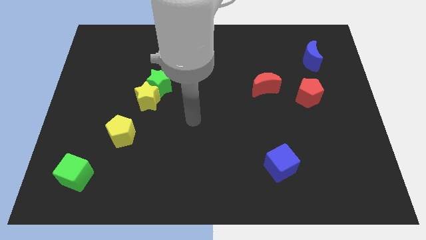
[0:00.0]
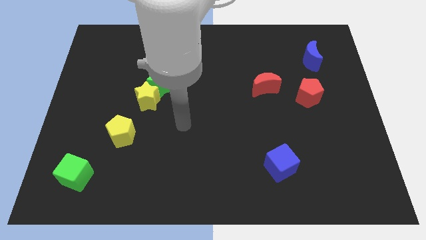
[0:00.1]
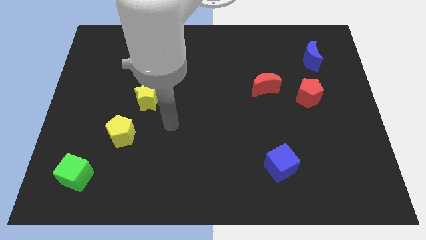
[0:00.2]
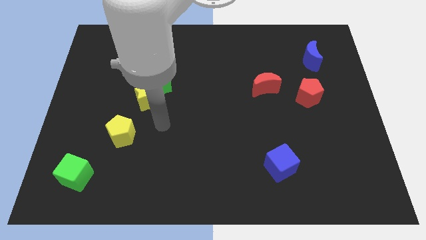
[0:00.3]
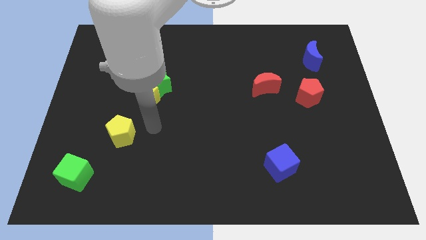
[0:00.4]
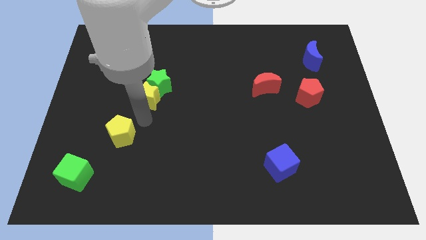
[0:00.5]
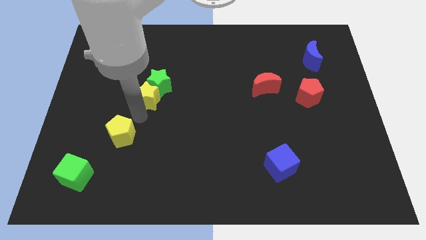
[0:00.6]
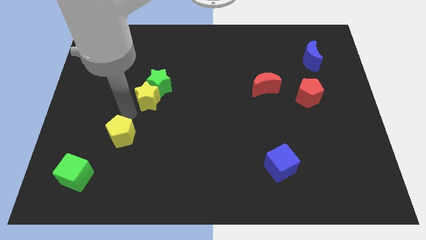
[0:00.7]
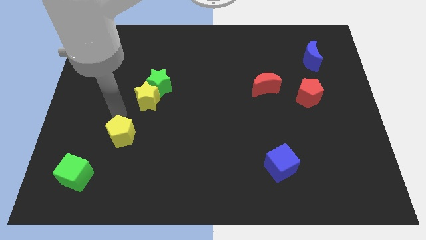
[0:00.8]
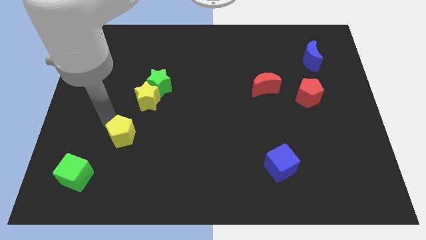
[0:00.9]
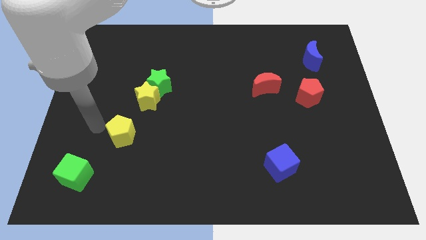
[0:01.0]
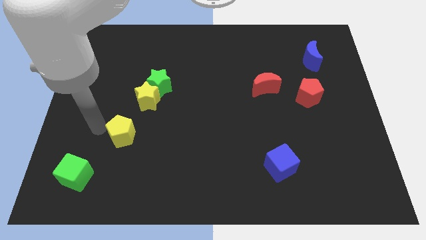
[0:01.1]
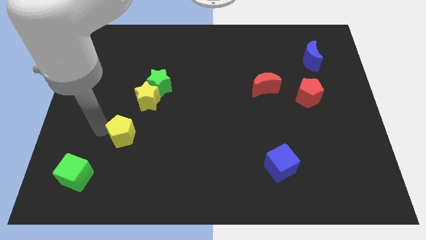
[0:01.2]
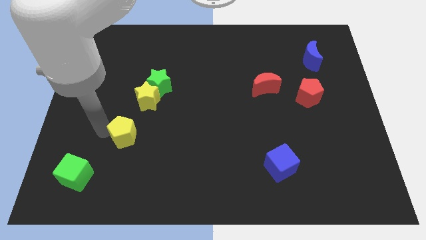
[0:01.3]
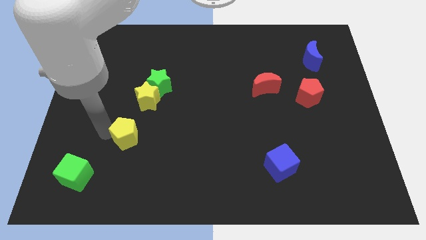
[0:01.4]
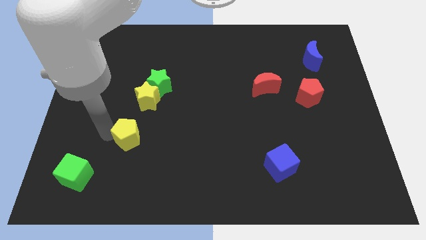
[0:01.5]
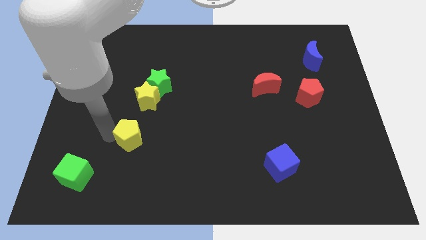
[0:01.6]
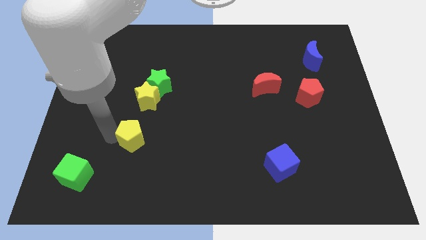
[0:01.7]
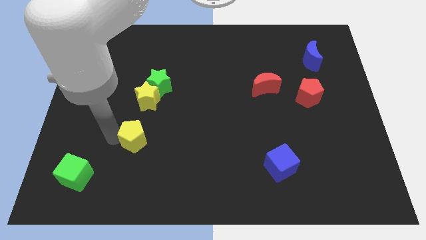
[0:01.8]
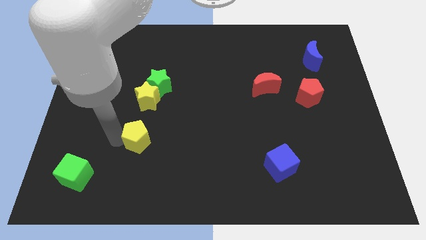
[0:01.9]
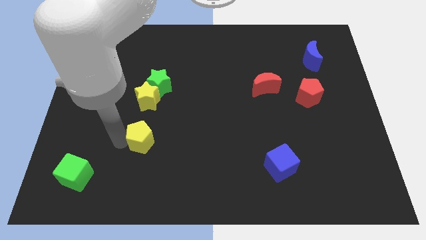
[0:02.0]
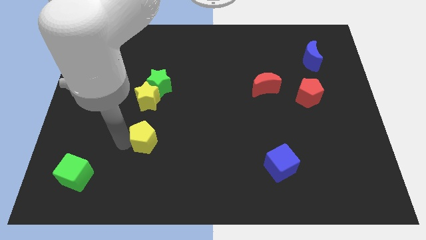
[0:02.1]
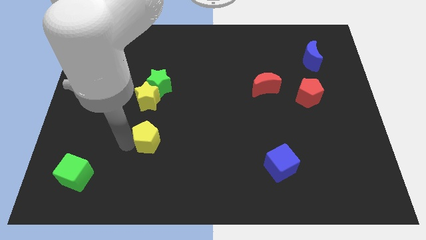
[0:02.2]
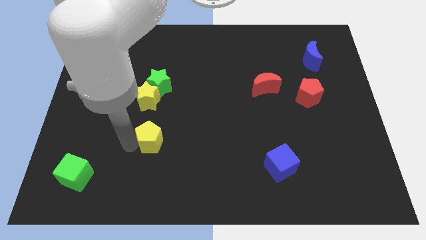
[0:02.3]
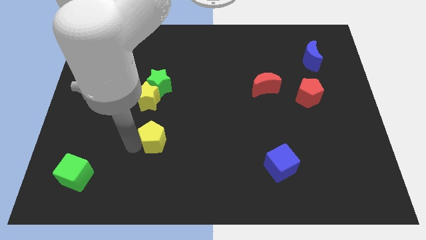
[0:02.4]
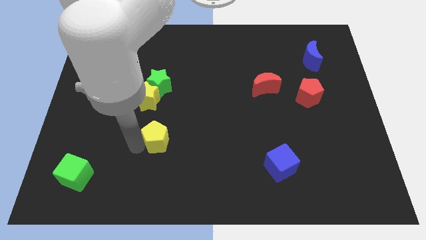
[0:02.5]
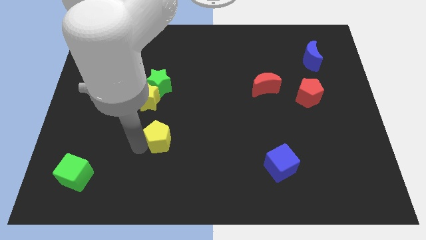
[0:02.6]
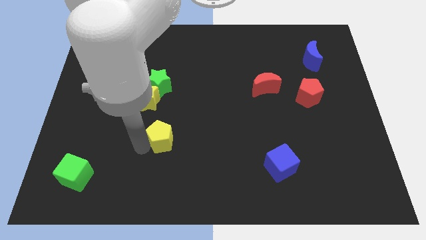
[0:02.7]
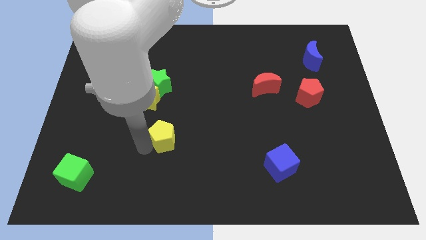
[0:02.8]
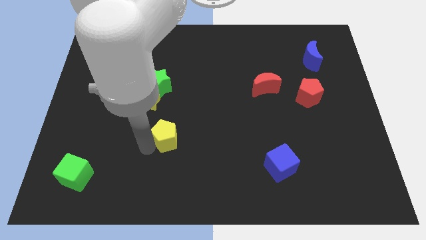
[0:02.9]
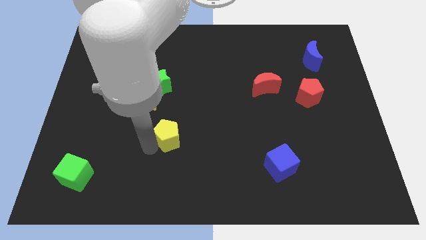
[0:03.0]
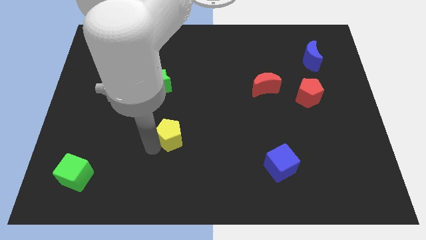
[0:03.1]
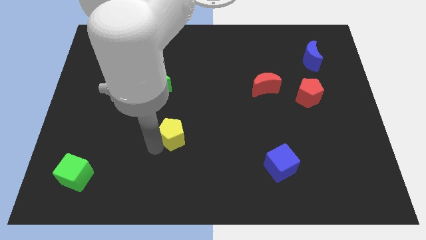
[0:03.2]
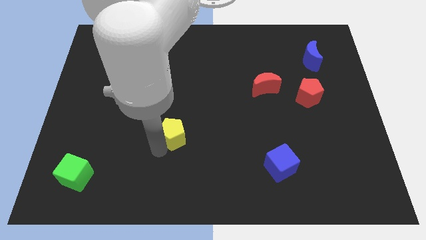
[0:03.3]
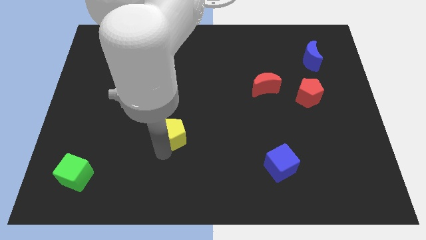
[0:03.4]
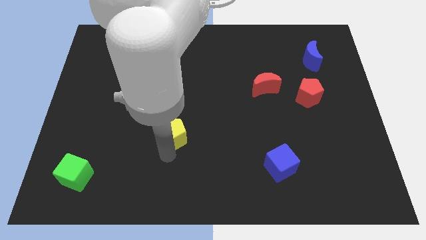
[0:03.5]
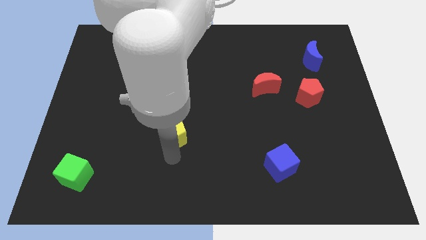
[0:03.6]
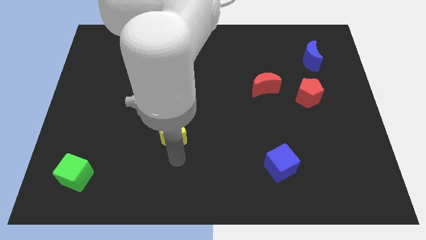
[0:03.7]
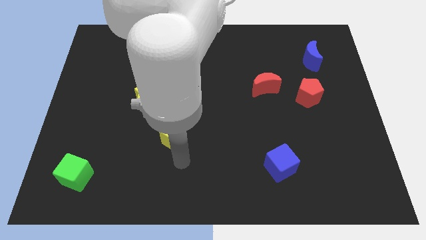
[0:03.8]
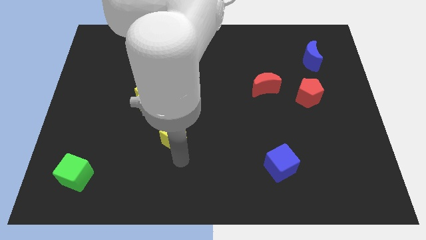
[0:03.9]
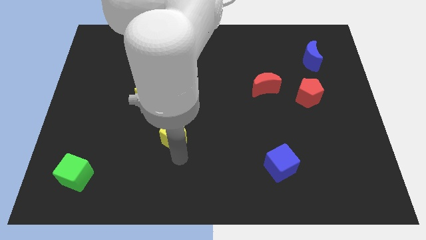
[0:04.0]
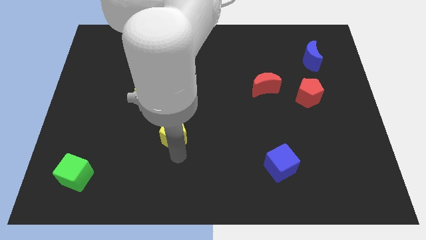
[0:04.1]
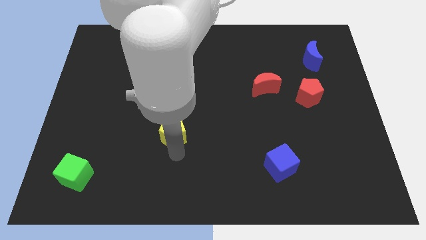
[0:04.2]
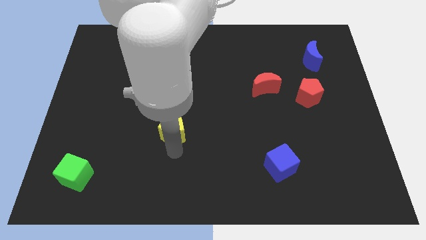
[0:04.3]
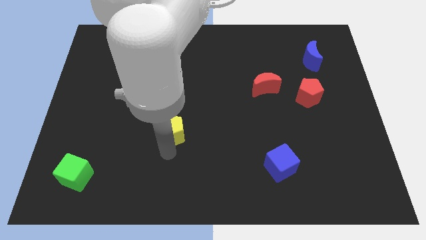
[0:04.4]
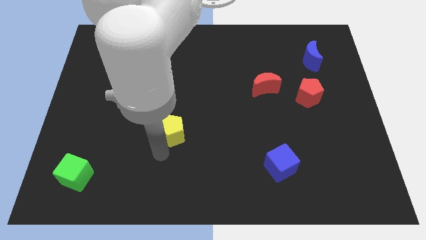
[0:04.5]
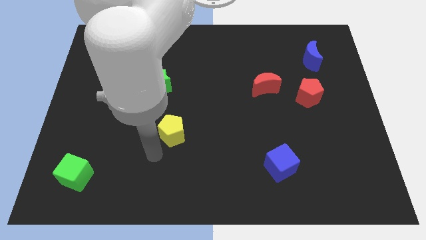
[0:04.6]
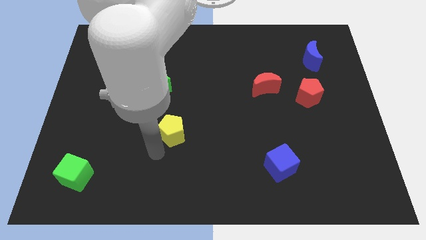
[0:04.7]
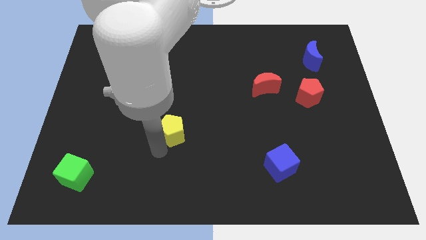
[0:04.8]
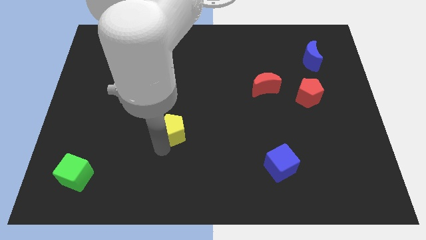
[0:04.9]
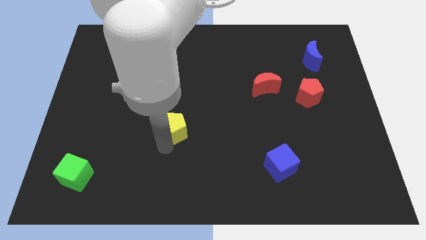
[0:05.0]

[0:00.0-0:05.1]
slide the yellow pentagon to the center

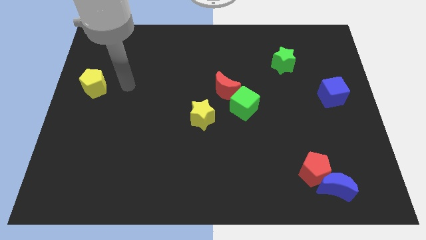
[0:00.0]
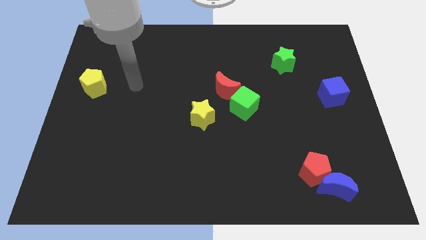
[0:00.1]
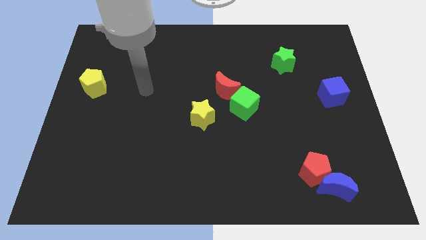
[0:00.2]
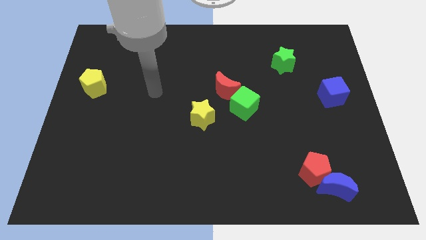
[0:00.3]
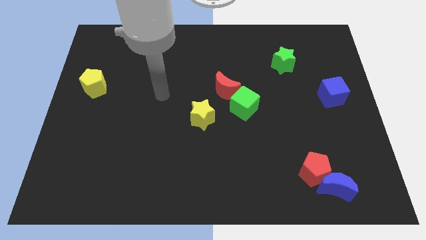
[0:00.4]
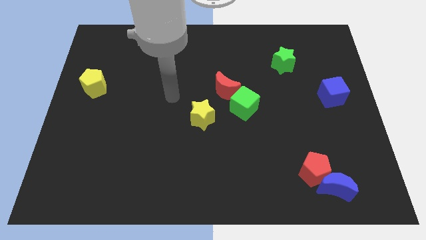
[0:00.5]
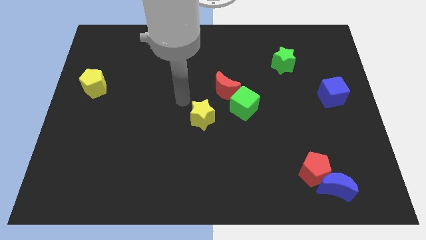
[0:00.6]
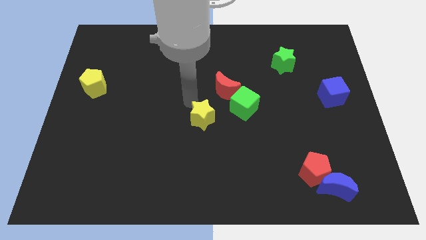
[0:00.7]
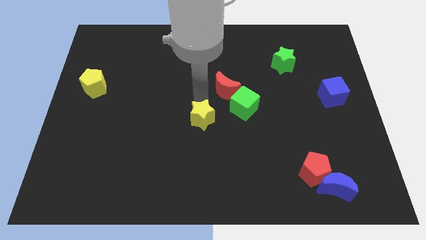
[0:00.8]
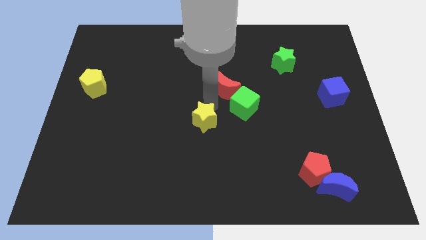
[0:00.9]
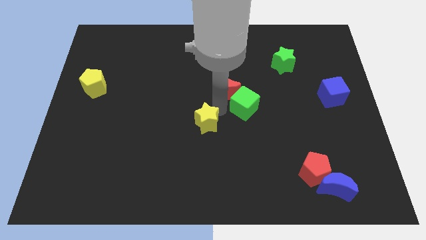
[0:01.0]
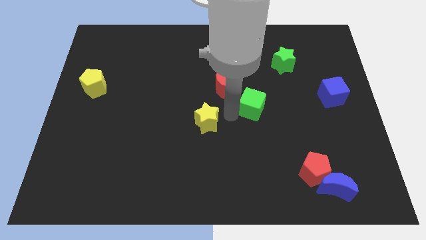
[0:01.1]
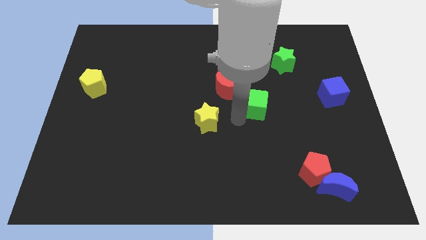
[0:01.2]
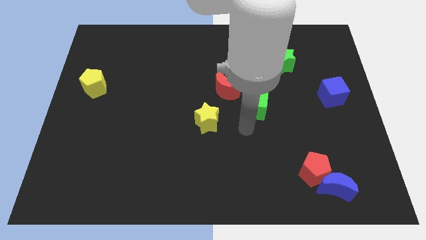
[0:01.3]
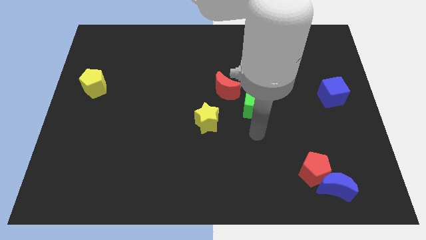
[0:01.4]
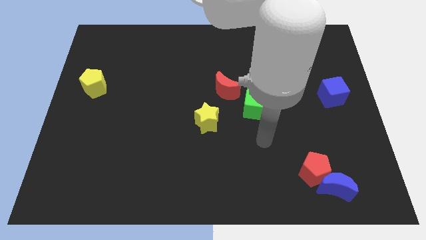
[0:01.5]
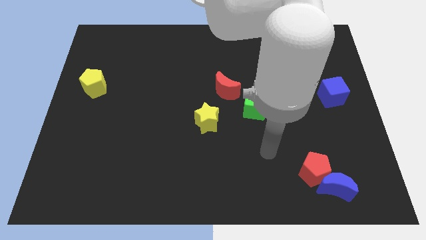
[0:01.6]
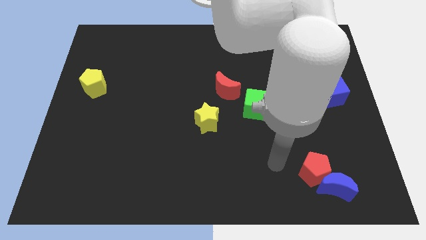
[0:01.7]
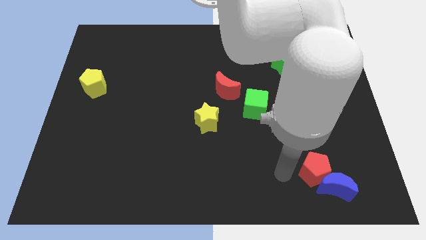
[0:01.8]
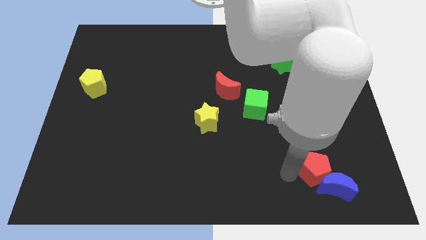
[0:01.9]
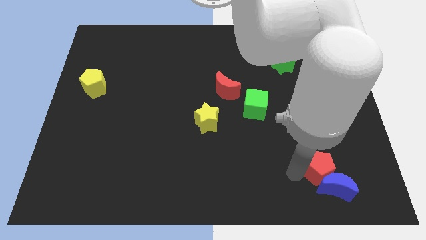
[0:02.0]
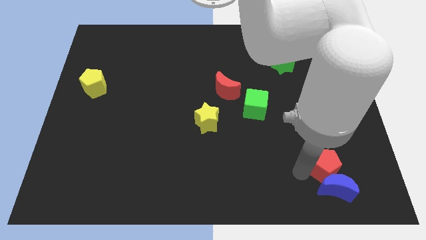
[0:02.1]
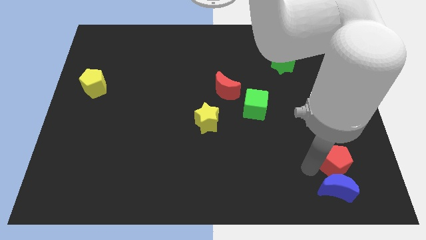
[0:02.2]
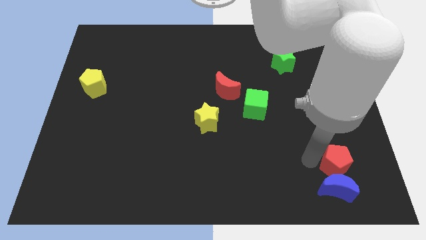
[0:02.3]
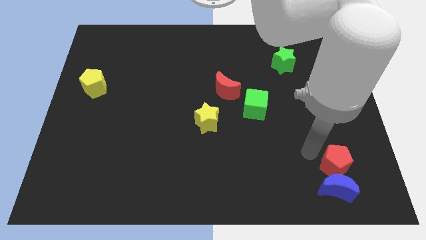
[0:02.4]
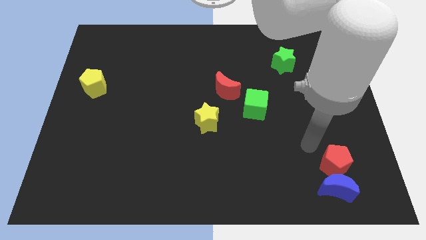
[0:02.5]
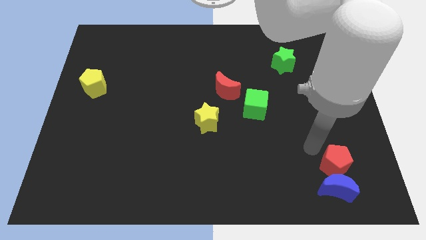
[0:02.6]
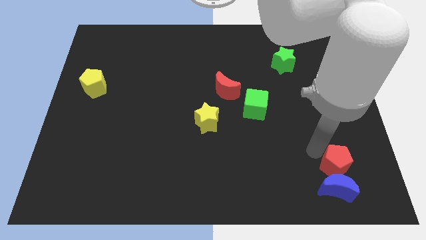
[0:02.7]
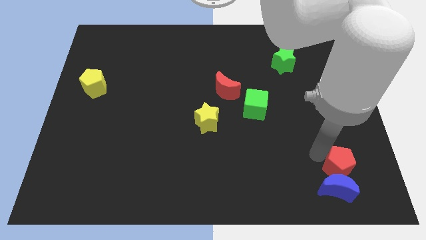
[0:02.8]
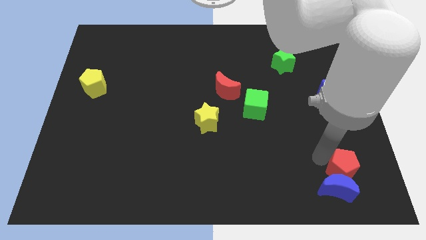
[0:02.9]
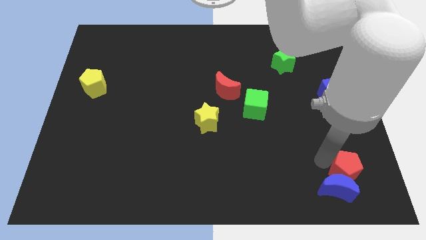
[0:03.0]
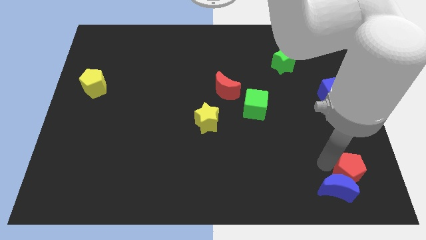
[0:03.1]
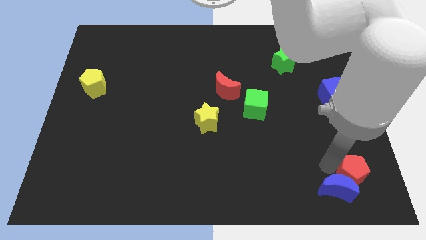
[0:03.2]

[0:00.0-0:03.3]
move the red pentagon to the lower right corner
